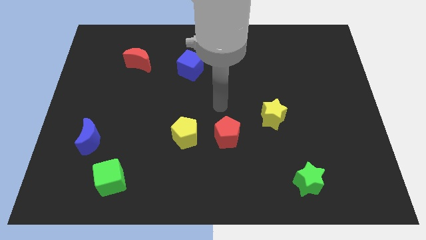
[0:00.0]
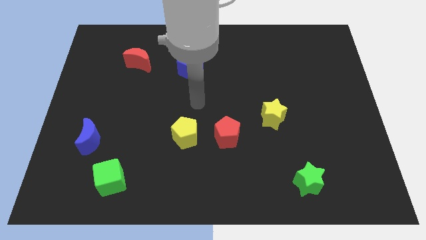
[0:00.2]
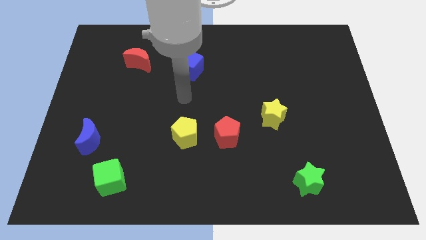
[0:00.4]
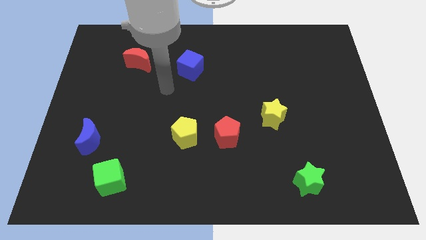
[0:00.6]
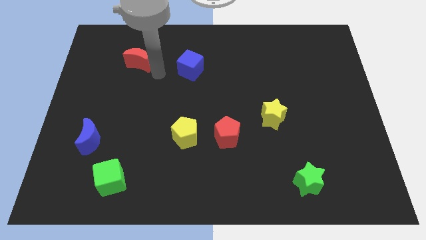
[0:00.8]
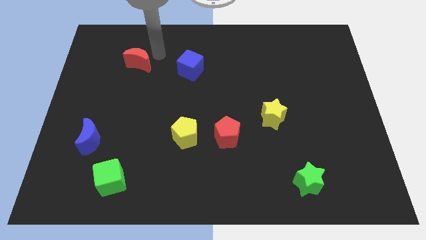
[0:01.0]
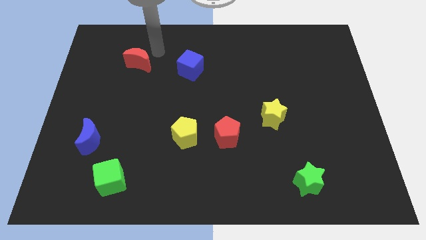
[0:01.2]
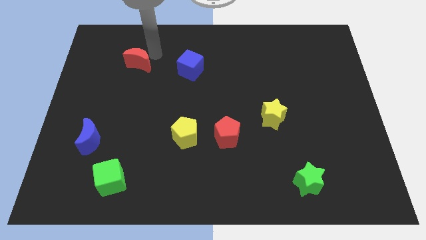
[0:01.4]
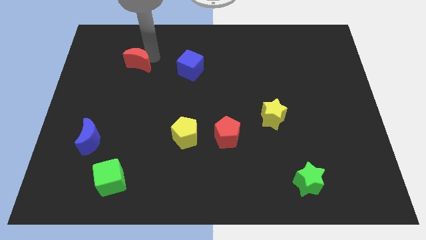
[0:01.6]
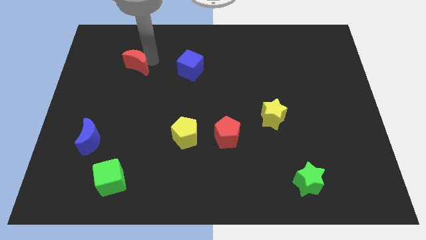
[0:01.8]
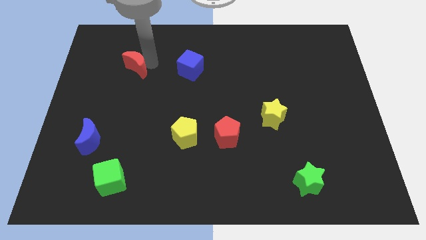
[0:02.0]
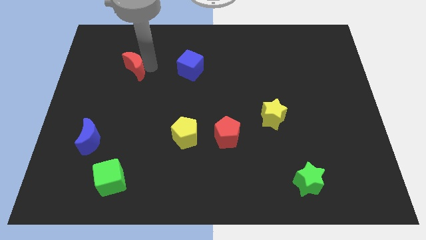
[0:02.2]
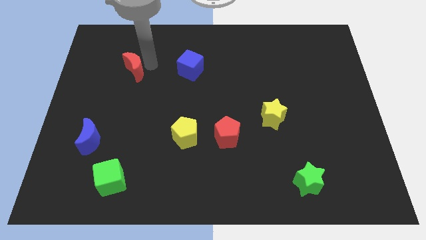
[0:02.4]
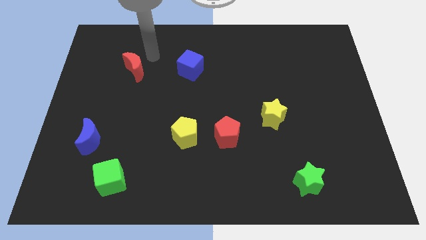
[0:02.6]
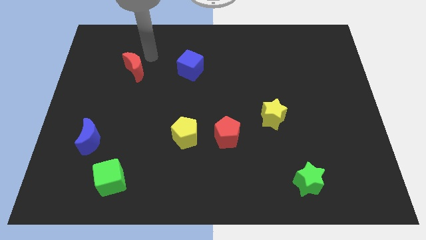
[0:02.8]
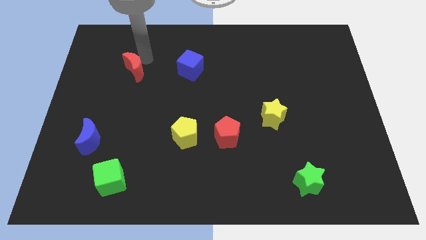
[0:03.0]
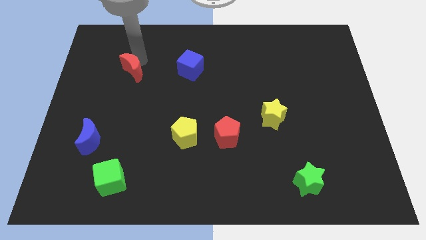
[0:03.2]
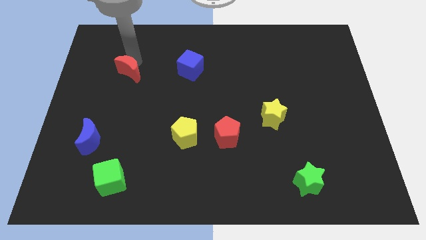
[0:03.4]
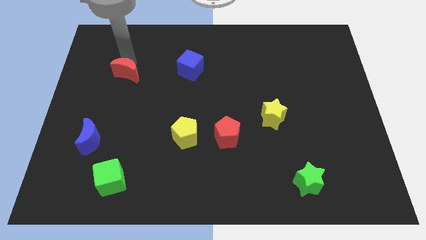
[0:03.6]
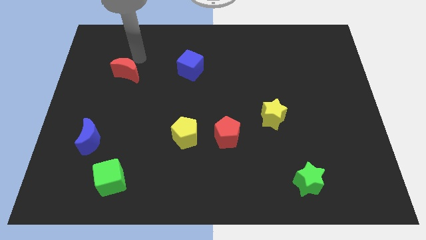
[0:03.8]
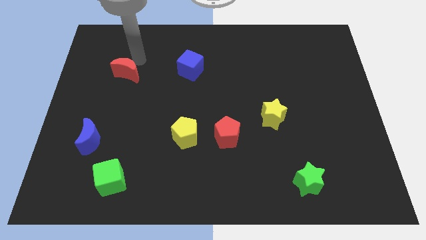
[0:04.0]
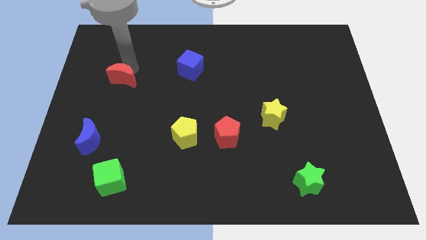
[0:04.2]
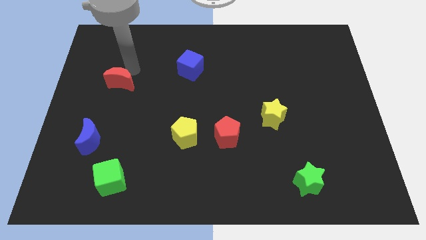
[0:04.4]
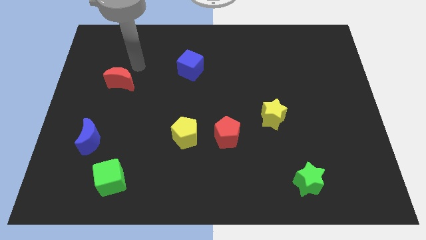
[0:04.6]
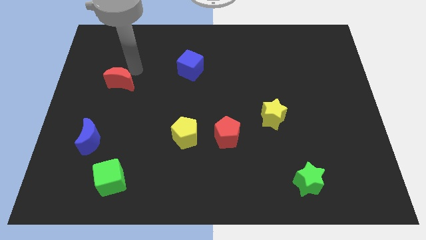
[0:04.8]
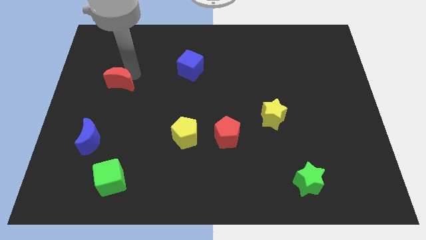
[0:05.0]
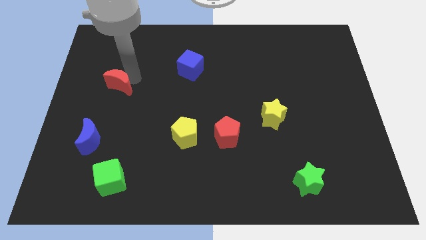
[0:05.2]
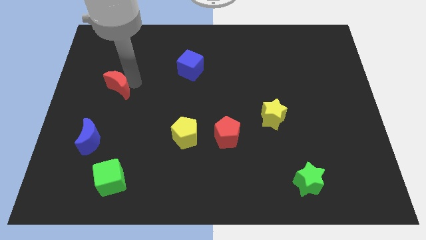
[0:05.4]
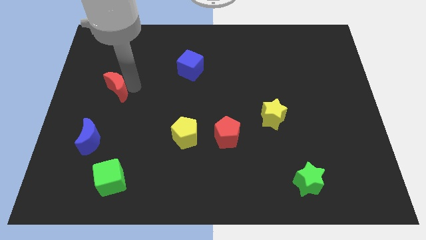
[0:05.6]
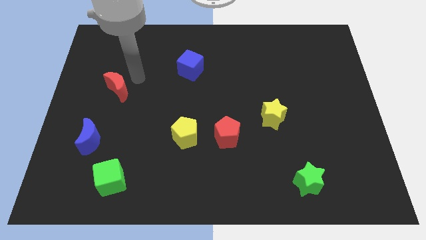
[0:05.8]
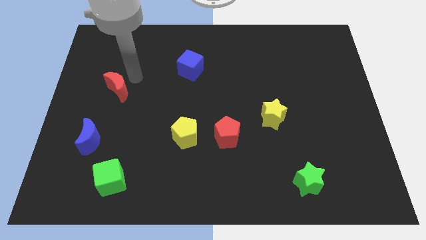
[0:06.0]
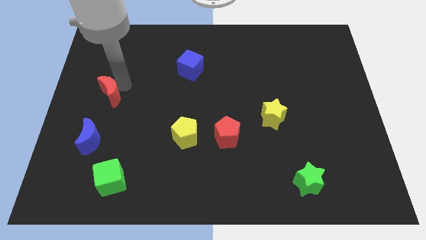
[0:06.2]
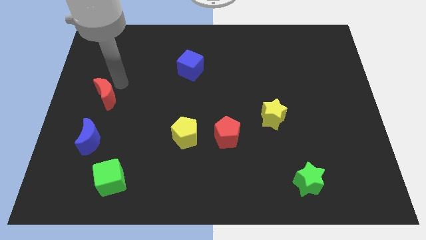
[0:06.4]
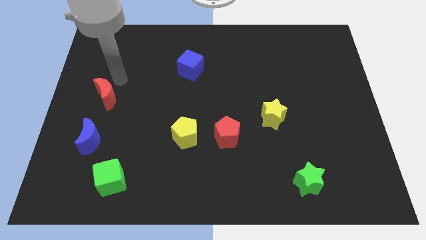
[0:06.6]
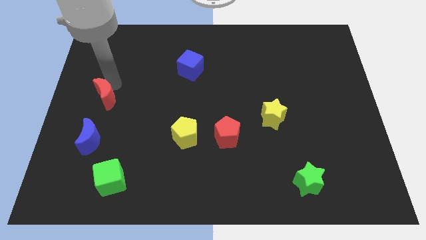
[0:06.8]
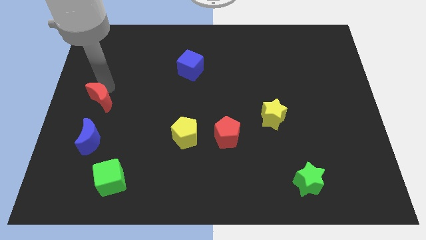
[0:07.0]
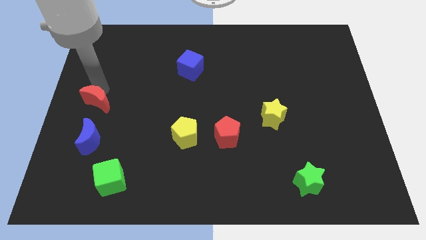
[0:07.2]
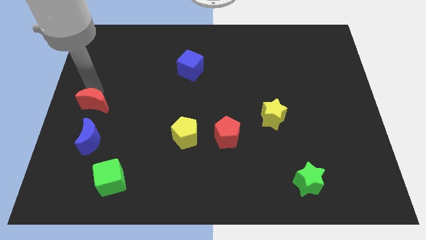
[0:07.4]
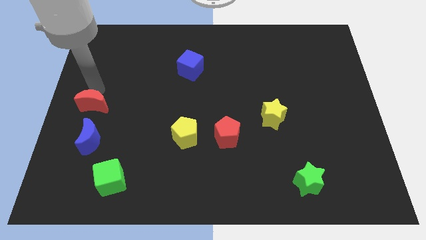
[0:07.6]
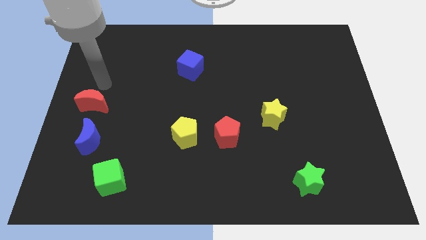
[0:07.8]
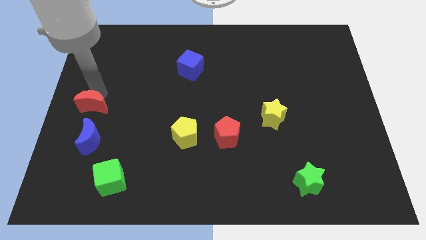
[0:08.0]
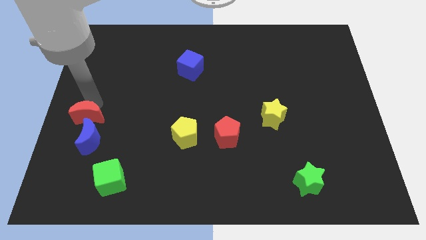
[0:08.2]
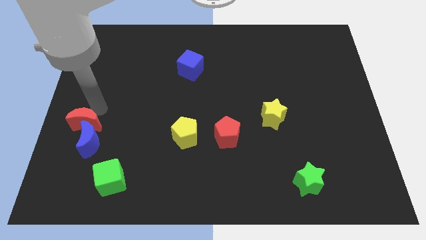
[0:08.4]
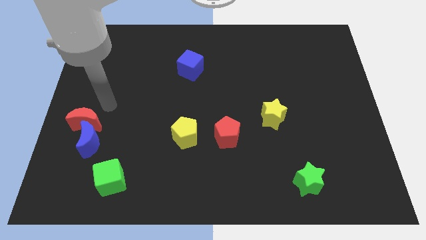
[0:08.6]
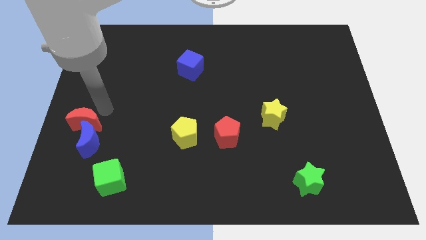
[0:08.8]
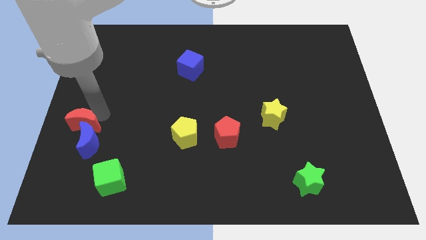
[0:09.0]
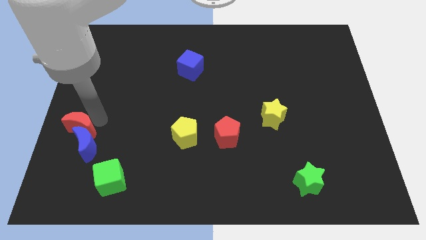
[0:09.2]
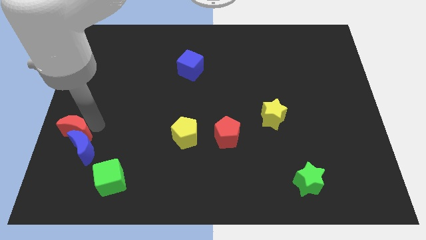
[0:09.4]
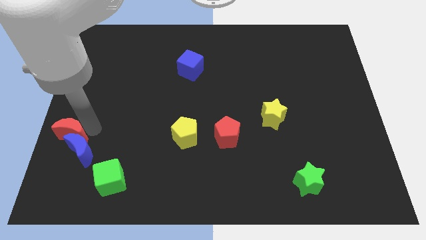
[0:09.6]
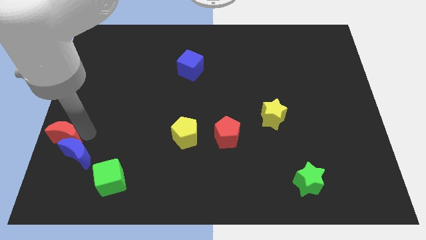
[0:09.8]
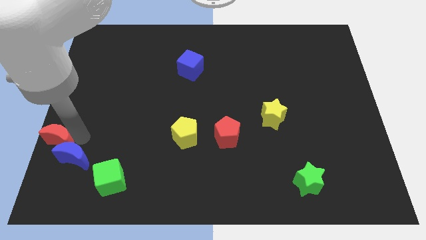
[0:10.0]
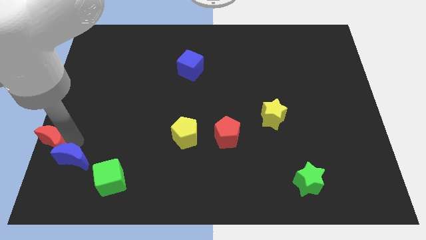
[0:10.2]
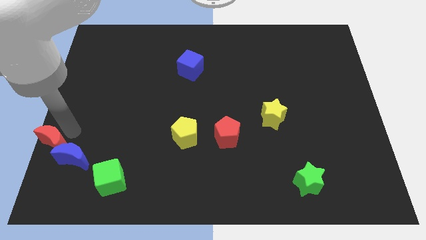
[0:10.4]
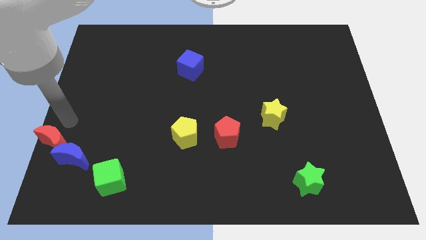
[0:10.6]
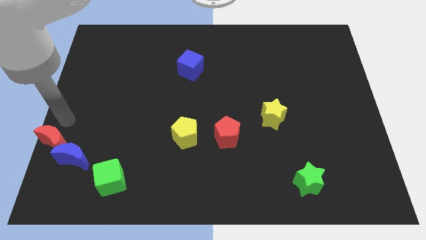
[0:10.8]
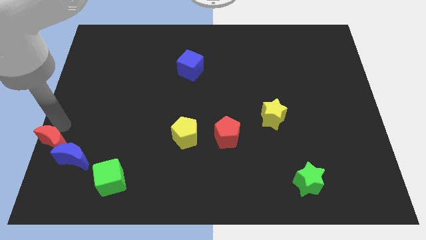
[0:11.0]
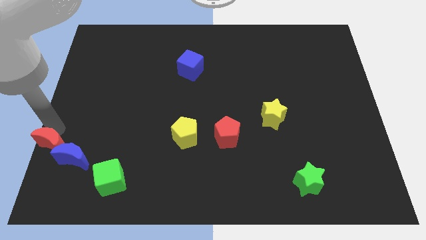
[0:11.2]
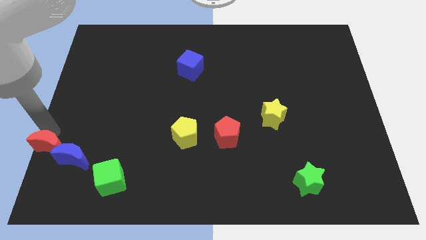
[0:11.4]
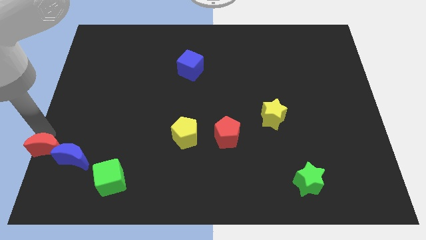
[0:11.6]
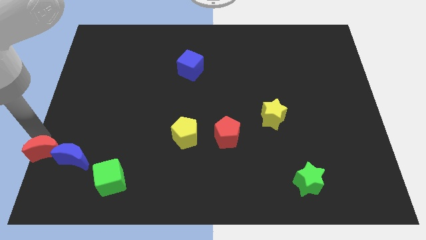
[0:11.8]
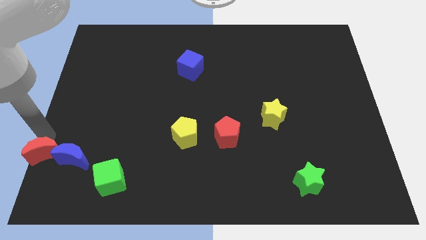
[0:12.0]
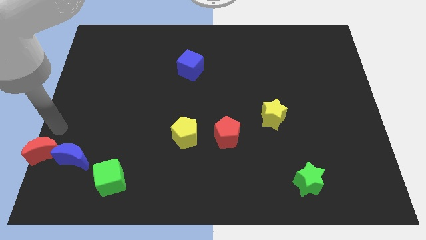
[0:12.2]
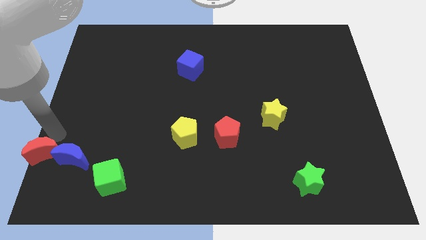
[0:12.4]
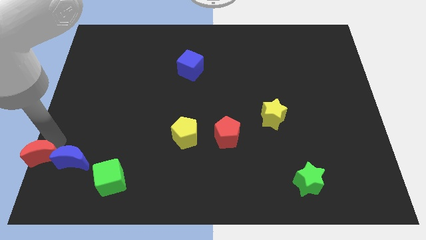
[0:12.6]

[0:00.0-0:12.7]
put the red moon to the bottom left corner
